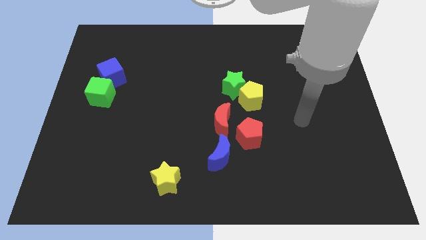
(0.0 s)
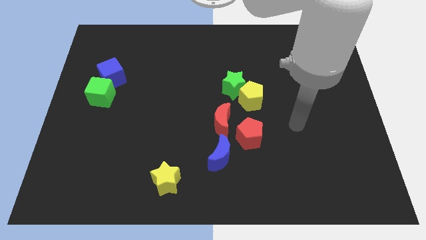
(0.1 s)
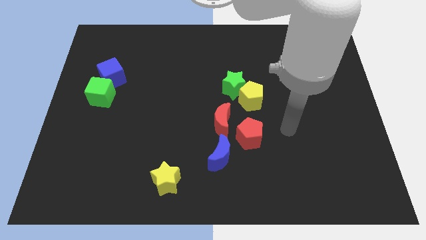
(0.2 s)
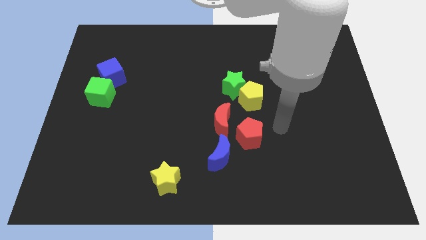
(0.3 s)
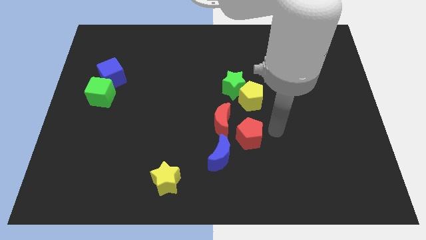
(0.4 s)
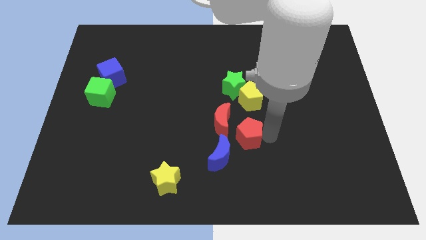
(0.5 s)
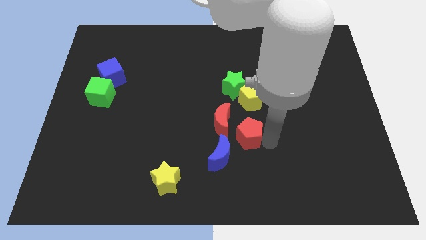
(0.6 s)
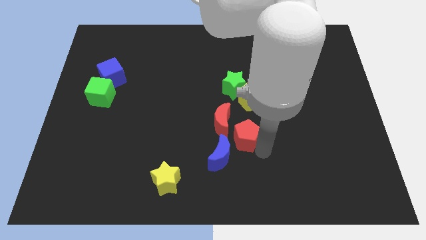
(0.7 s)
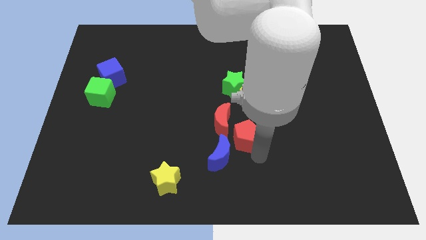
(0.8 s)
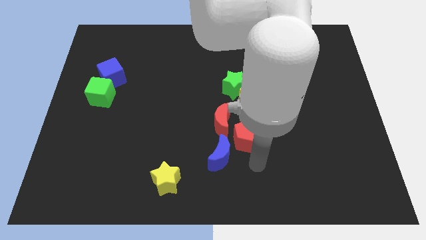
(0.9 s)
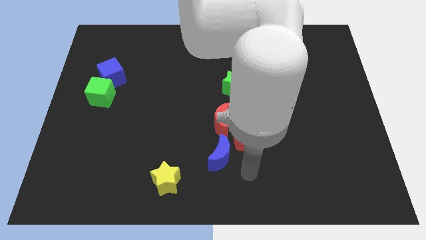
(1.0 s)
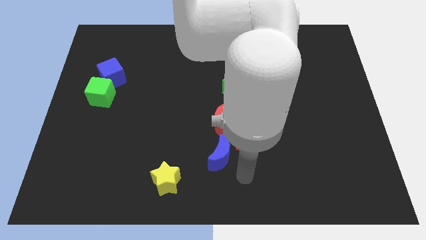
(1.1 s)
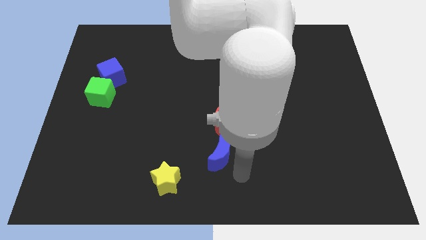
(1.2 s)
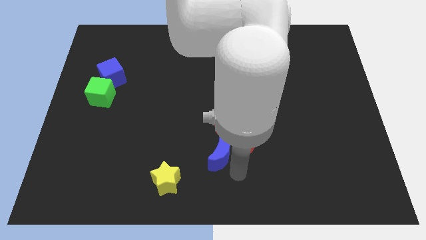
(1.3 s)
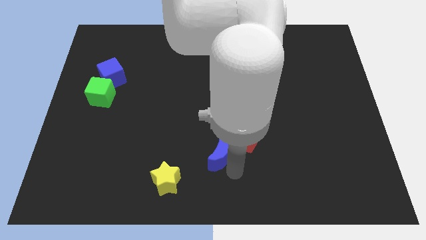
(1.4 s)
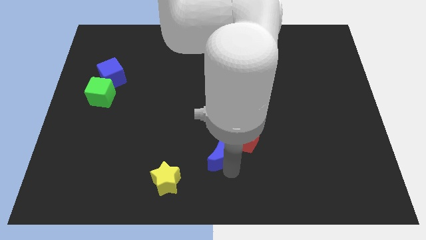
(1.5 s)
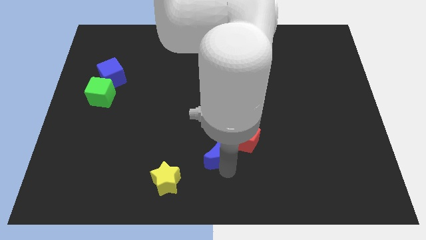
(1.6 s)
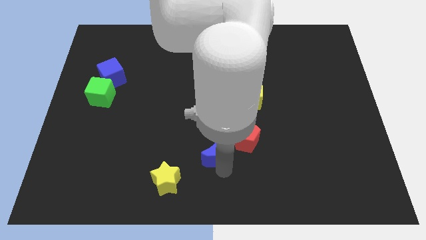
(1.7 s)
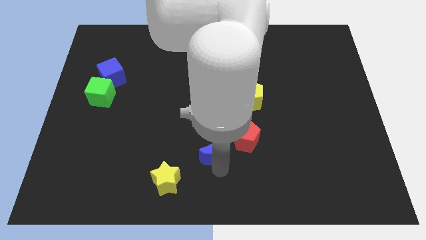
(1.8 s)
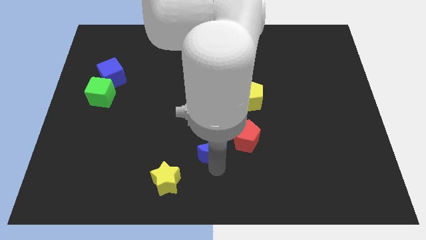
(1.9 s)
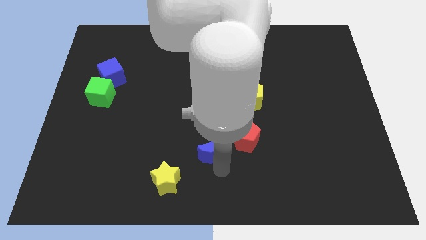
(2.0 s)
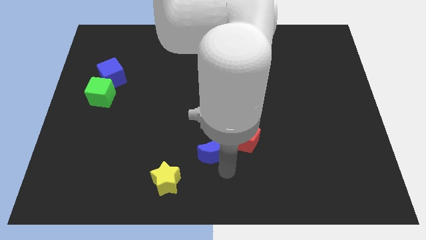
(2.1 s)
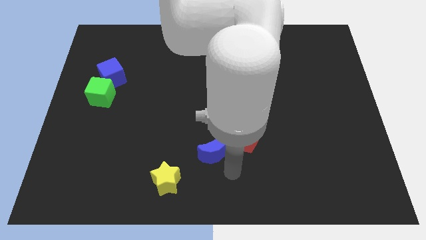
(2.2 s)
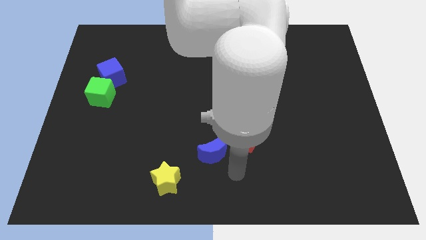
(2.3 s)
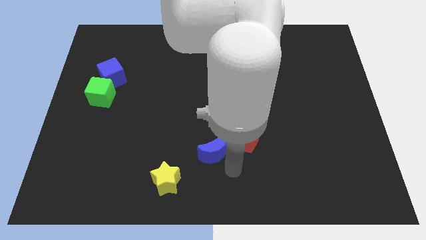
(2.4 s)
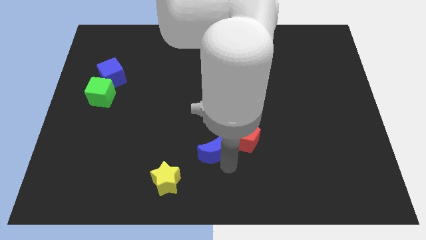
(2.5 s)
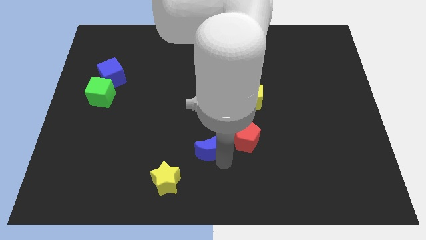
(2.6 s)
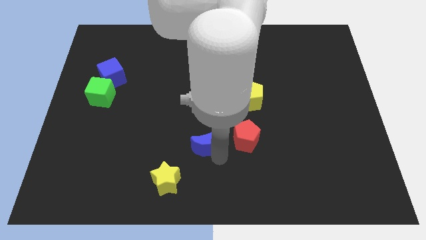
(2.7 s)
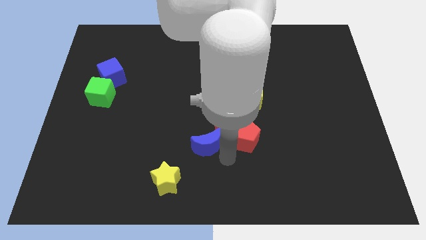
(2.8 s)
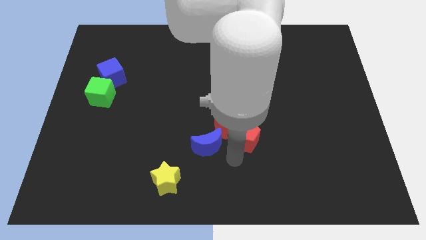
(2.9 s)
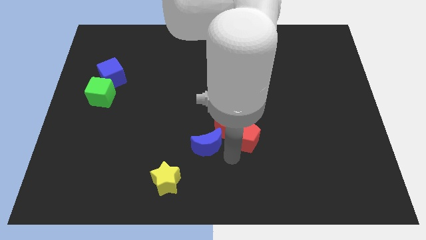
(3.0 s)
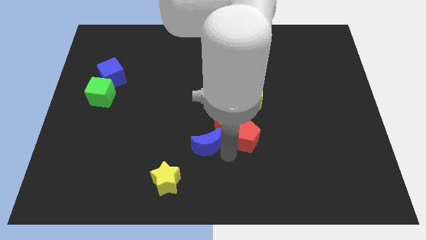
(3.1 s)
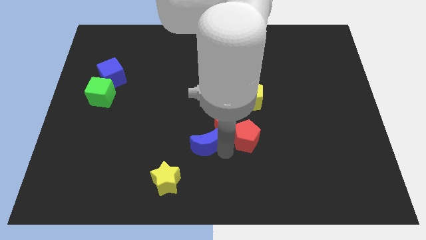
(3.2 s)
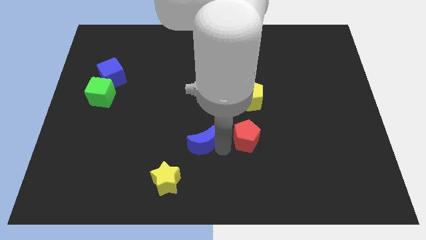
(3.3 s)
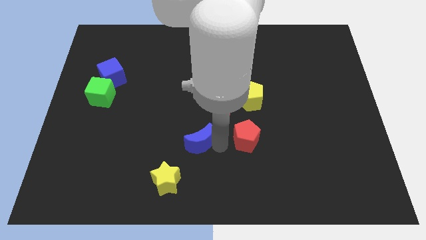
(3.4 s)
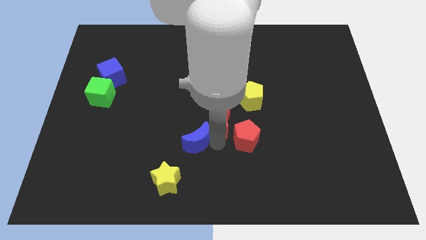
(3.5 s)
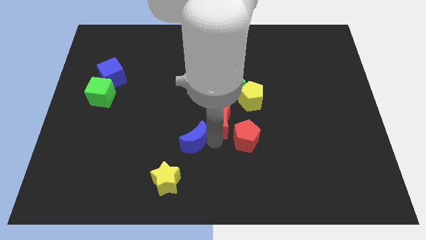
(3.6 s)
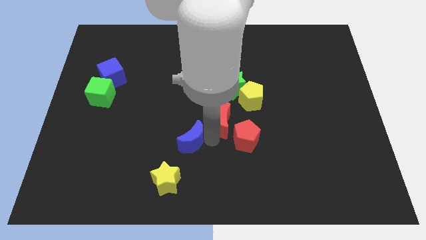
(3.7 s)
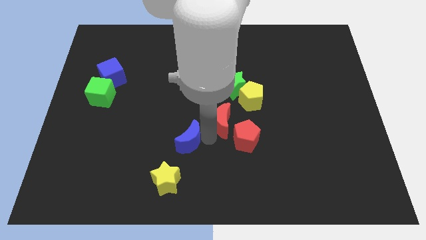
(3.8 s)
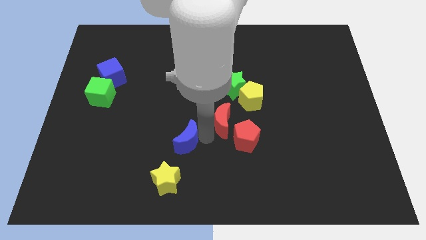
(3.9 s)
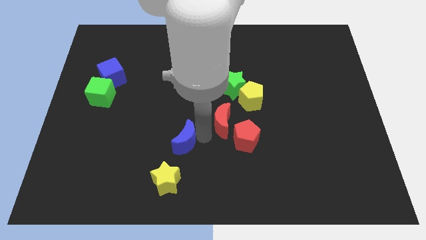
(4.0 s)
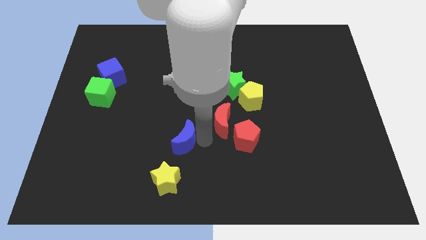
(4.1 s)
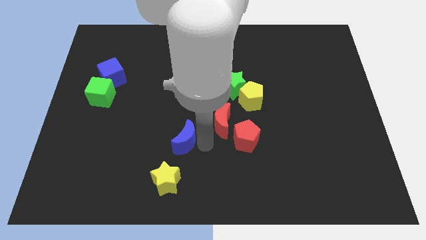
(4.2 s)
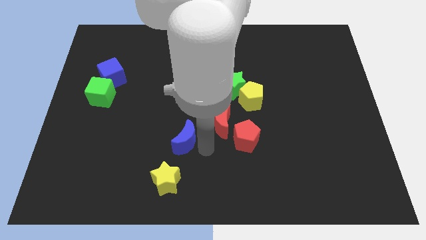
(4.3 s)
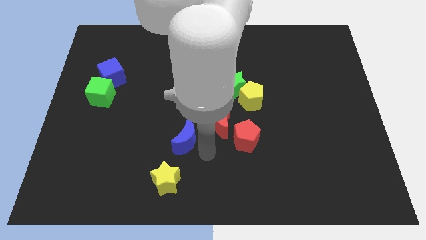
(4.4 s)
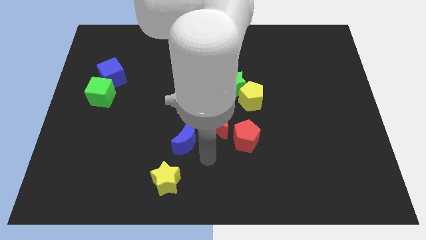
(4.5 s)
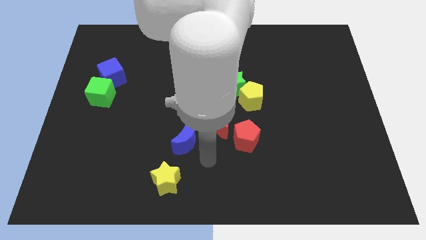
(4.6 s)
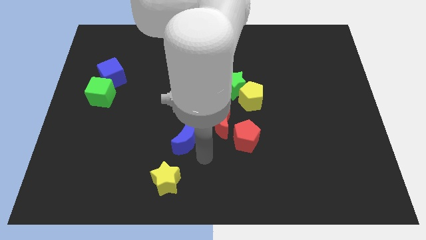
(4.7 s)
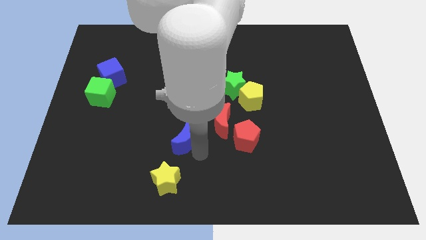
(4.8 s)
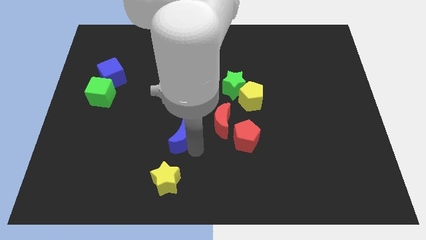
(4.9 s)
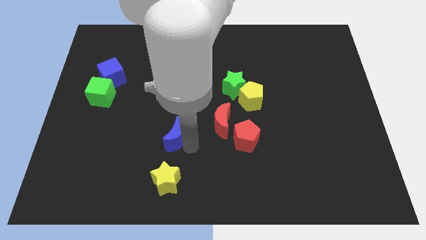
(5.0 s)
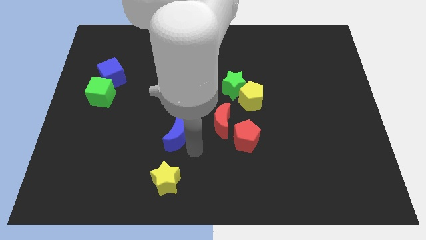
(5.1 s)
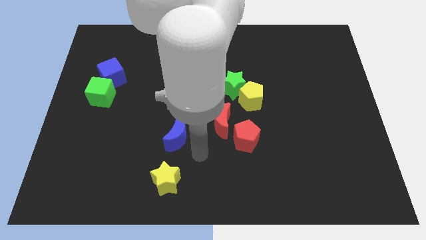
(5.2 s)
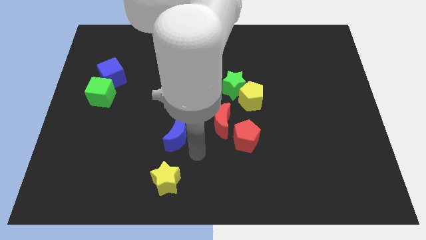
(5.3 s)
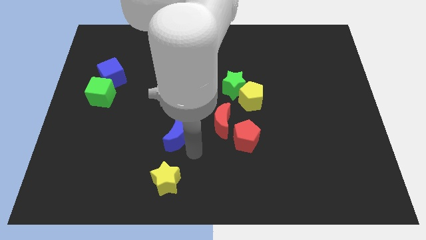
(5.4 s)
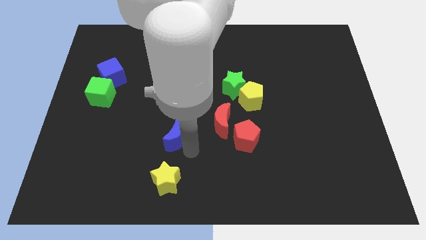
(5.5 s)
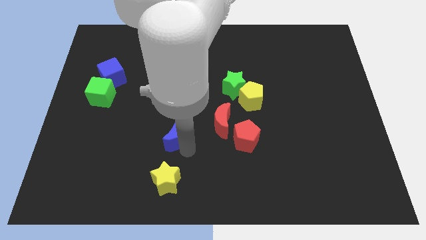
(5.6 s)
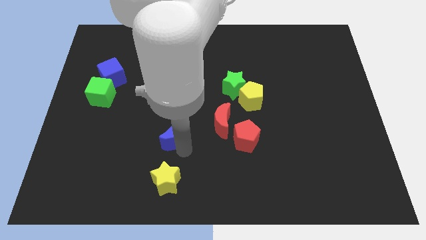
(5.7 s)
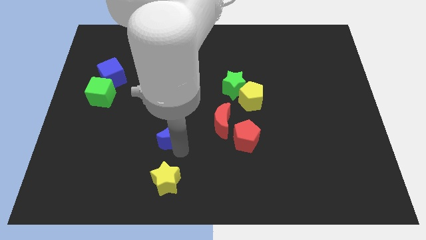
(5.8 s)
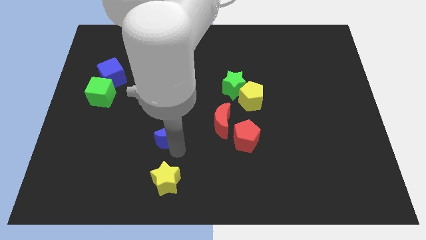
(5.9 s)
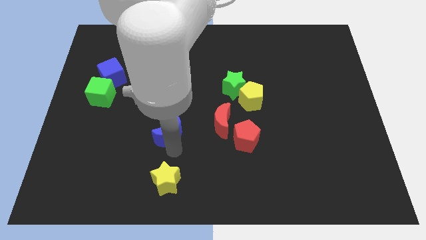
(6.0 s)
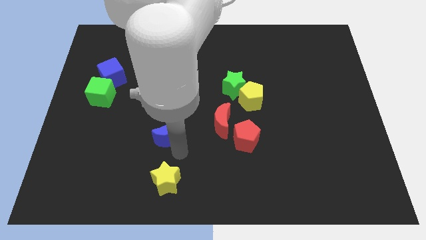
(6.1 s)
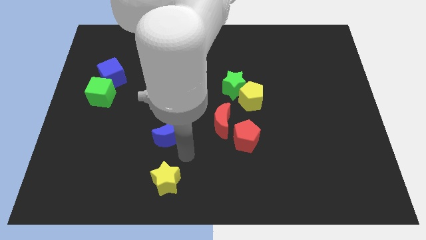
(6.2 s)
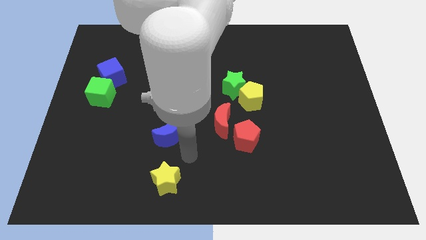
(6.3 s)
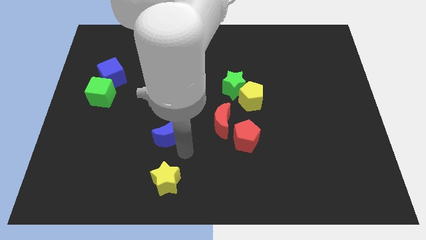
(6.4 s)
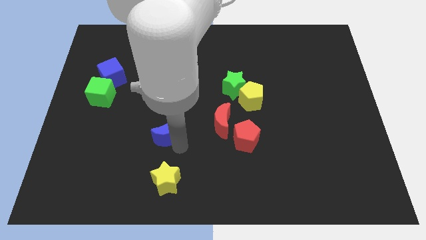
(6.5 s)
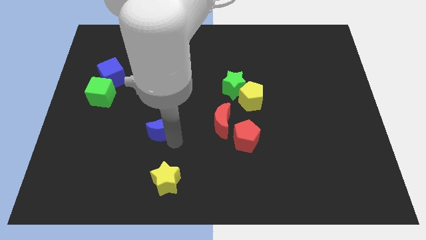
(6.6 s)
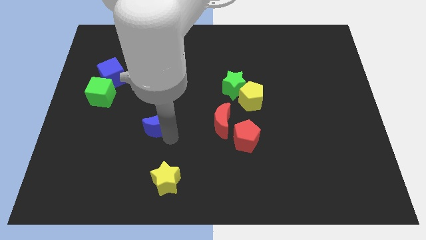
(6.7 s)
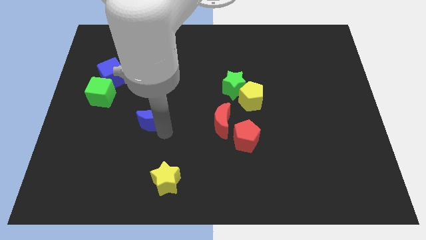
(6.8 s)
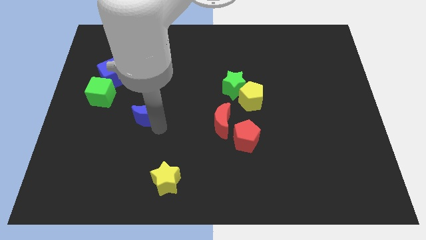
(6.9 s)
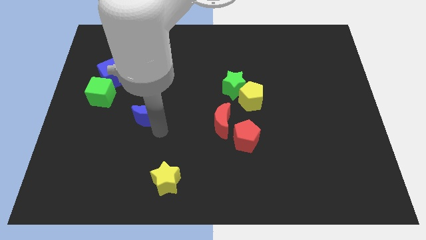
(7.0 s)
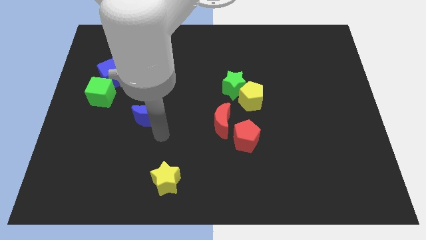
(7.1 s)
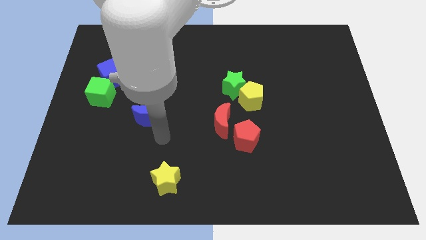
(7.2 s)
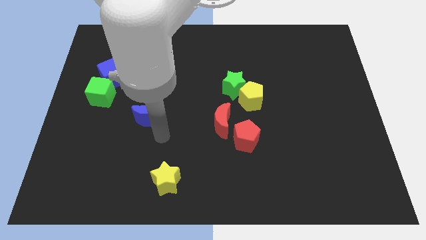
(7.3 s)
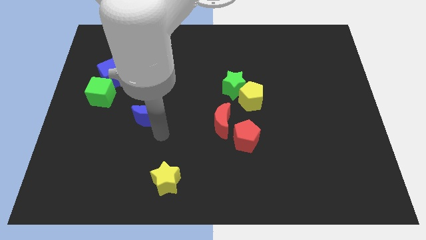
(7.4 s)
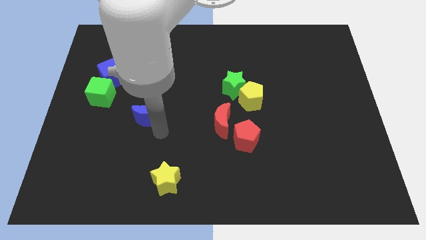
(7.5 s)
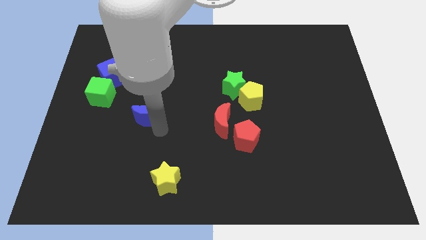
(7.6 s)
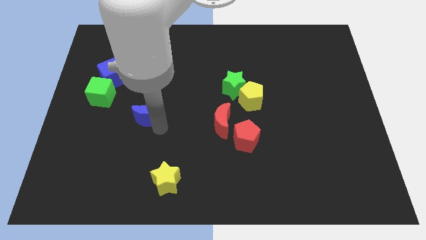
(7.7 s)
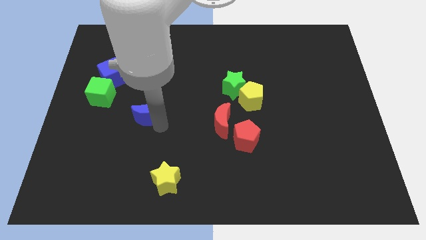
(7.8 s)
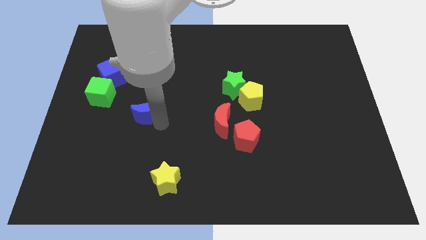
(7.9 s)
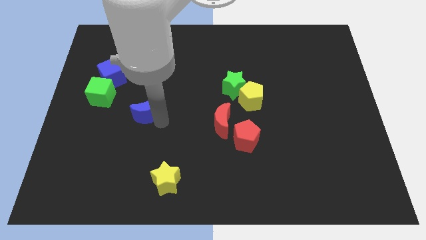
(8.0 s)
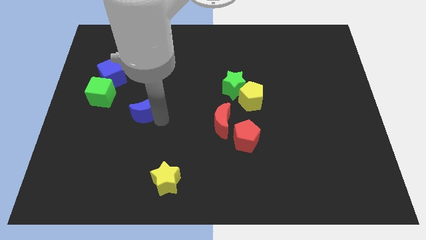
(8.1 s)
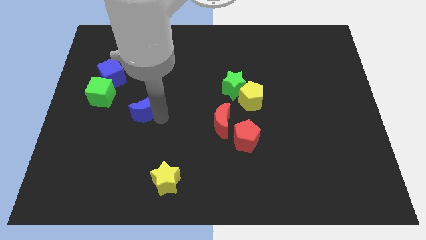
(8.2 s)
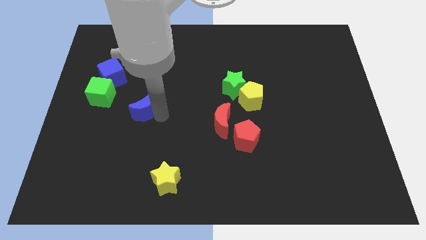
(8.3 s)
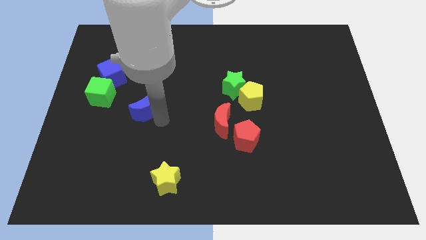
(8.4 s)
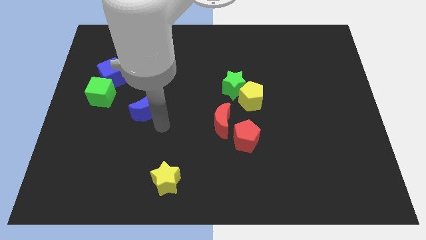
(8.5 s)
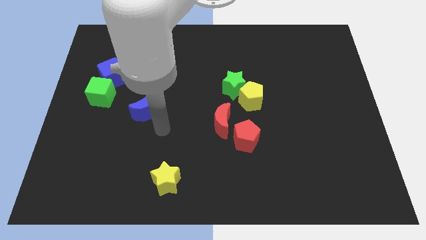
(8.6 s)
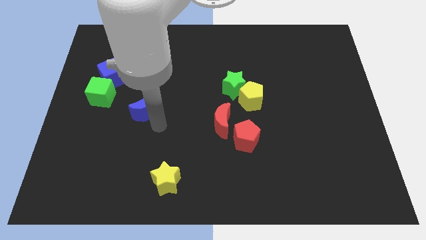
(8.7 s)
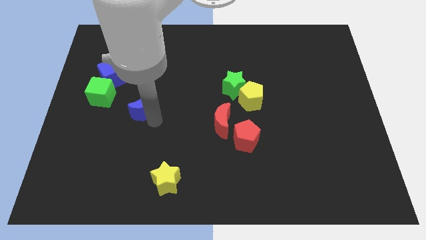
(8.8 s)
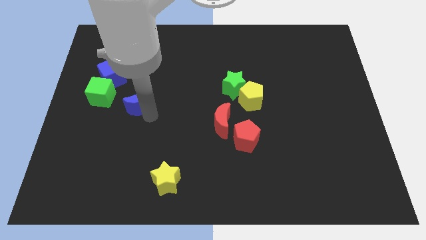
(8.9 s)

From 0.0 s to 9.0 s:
slide the blue moon to the bottom right of the blue cube
